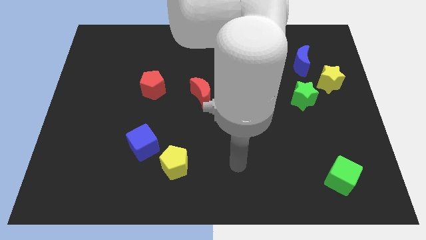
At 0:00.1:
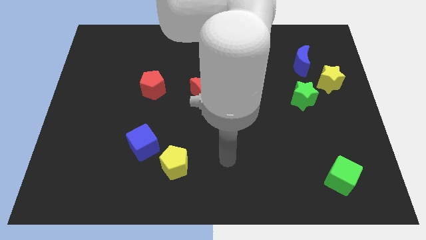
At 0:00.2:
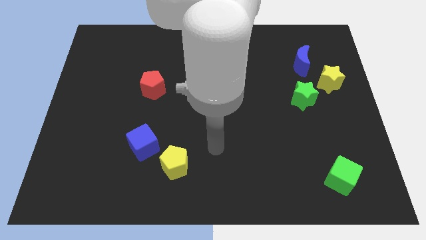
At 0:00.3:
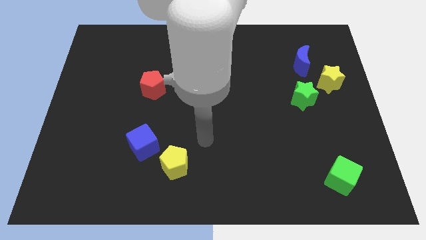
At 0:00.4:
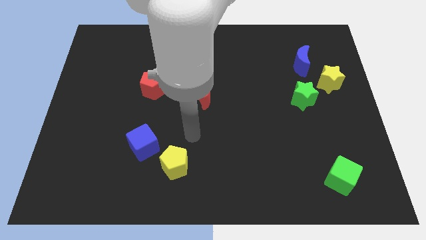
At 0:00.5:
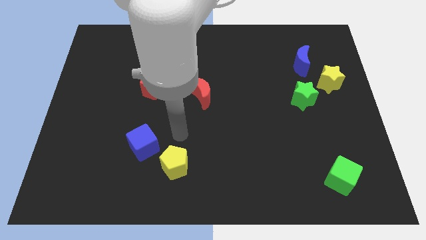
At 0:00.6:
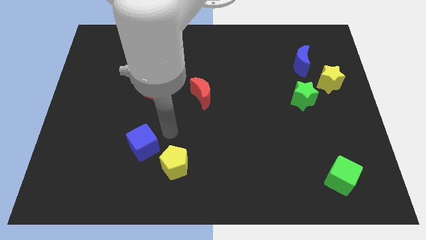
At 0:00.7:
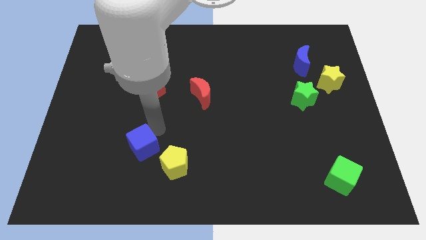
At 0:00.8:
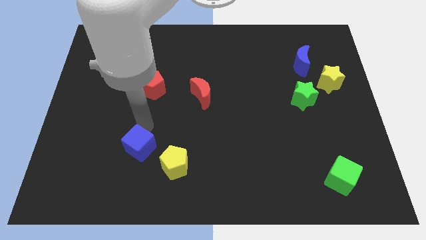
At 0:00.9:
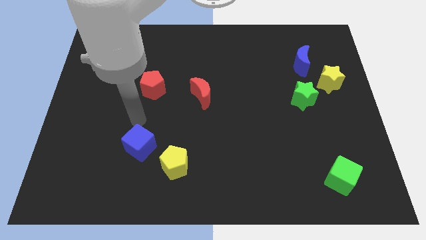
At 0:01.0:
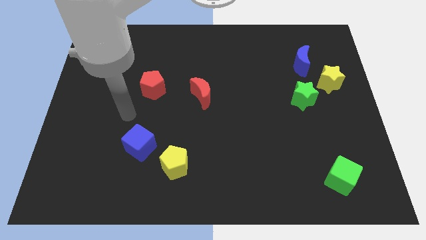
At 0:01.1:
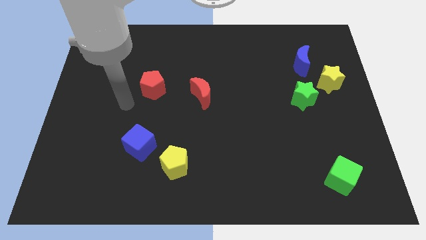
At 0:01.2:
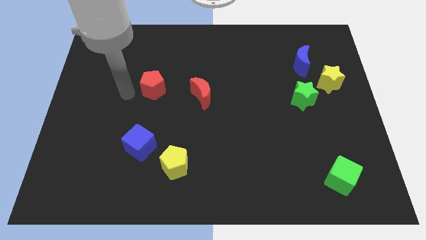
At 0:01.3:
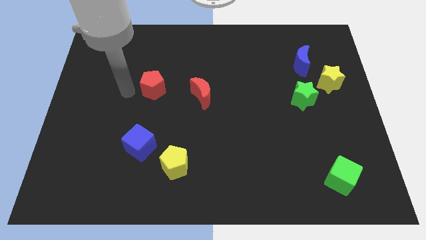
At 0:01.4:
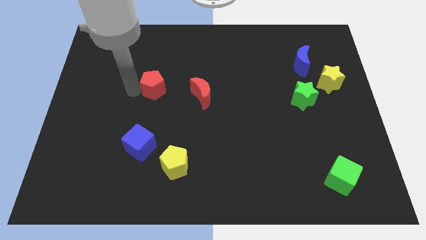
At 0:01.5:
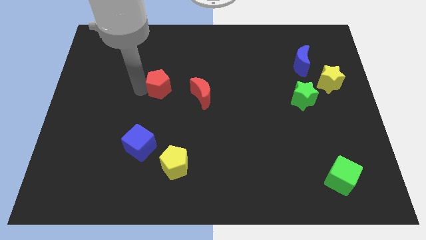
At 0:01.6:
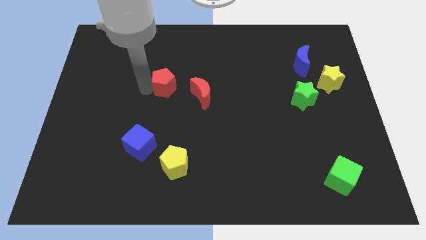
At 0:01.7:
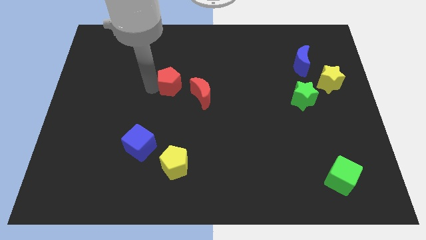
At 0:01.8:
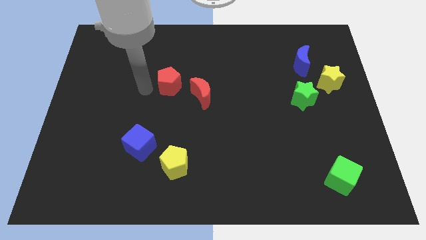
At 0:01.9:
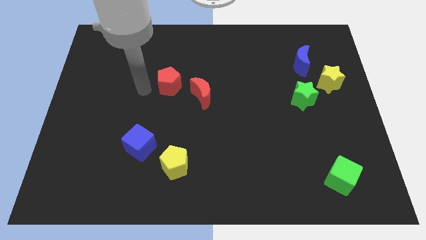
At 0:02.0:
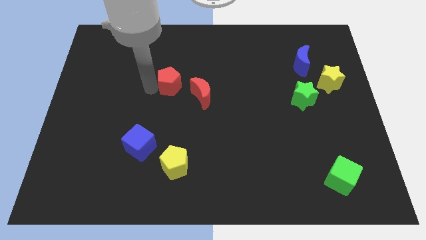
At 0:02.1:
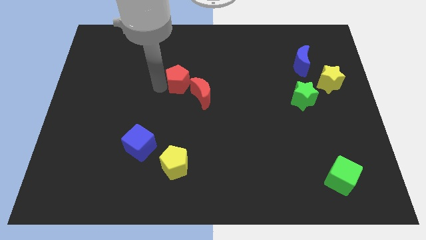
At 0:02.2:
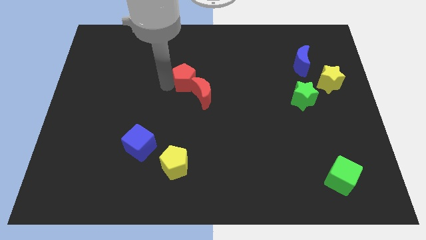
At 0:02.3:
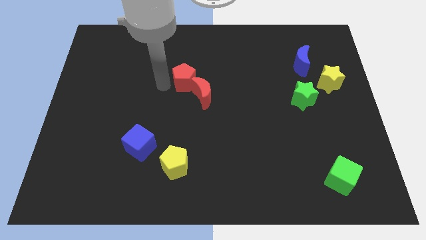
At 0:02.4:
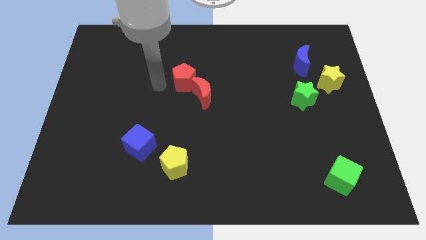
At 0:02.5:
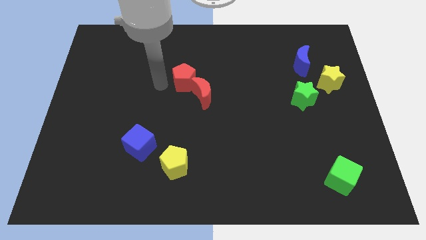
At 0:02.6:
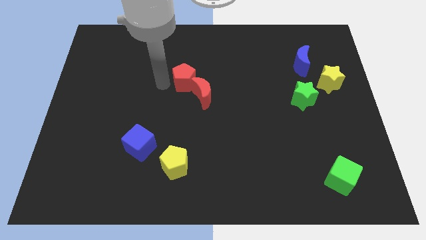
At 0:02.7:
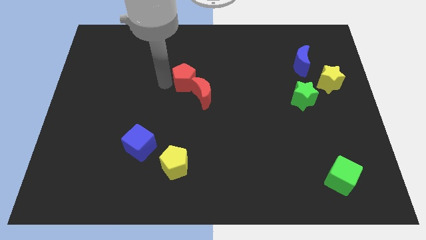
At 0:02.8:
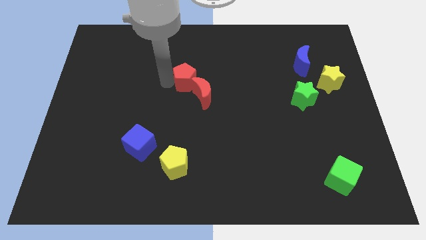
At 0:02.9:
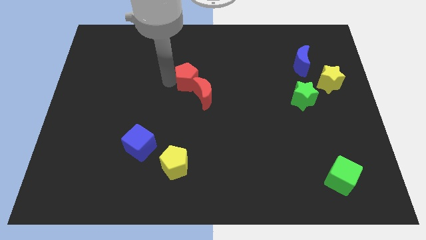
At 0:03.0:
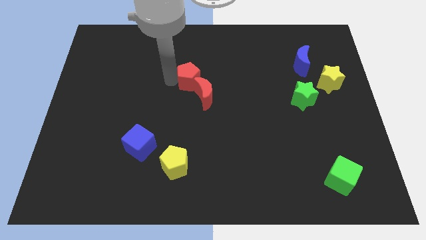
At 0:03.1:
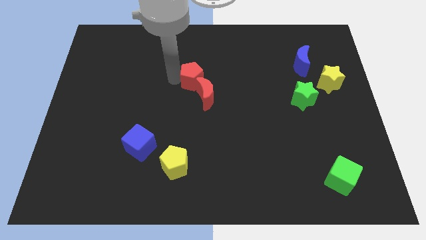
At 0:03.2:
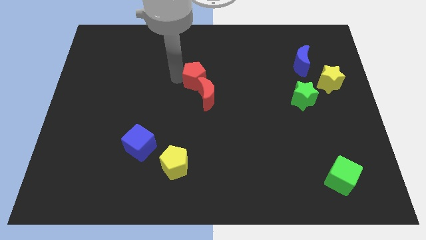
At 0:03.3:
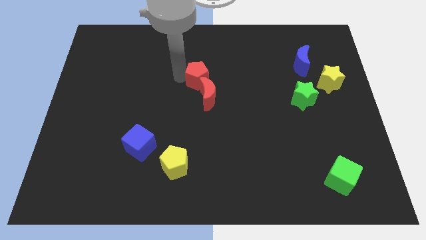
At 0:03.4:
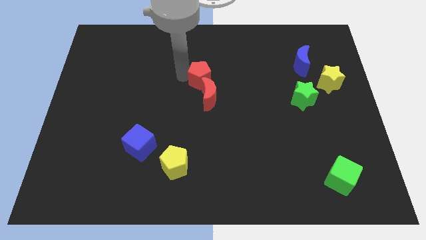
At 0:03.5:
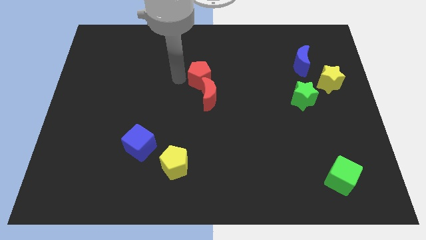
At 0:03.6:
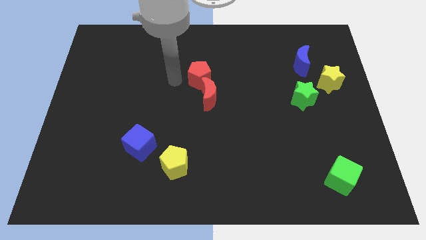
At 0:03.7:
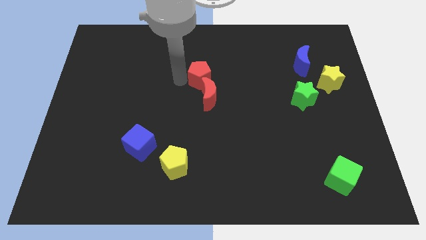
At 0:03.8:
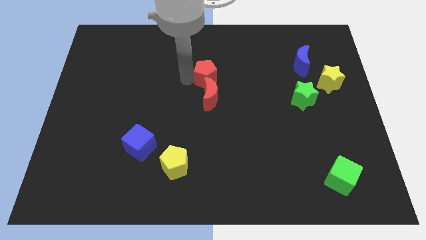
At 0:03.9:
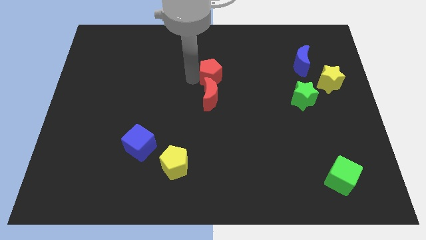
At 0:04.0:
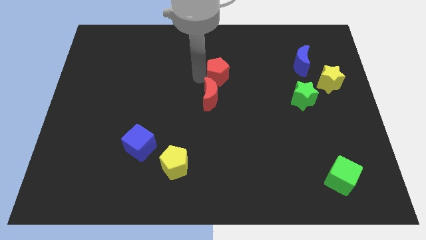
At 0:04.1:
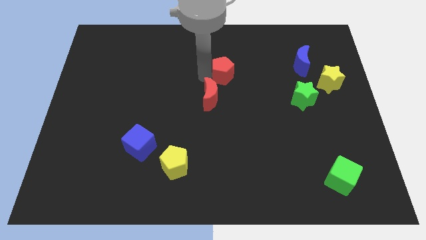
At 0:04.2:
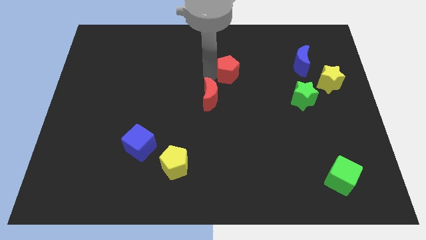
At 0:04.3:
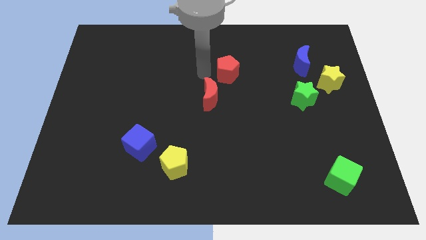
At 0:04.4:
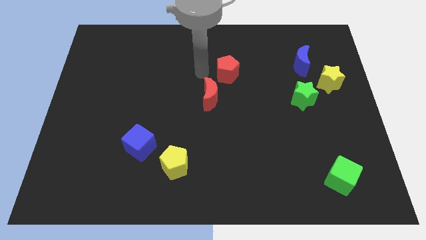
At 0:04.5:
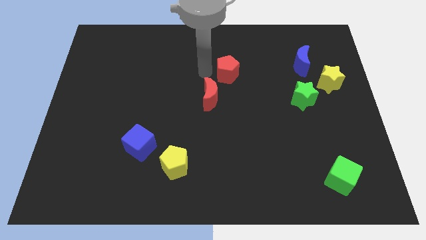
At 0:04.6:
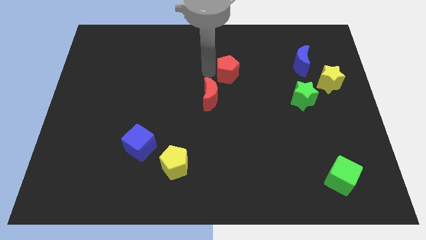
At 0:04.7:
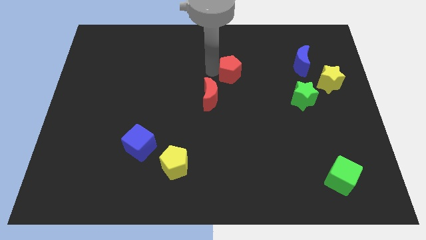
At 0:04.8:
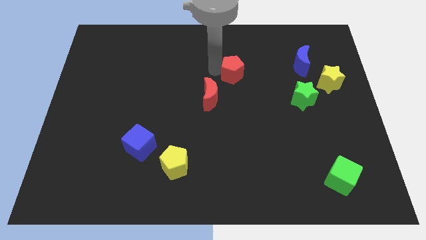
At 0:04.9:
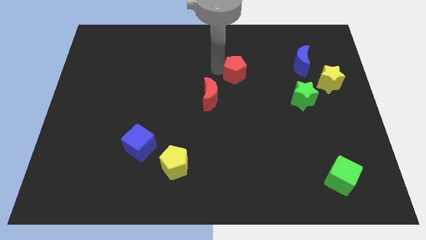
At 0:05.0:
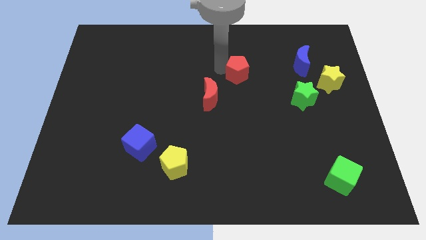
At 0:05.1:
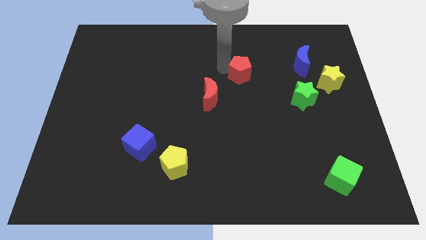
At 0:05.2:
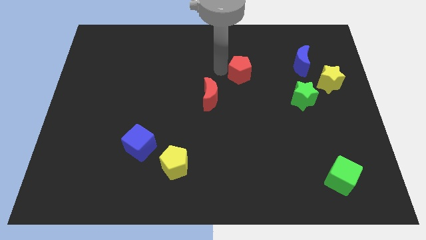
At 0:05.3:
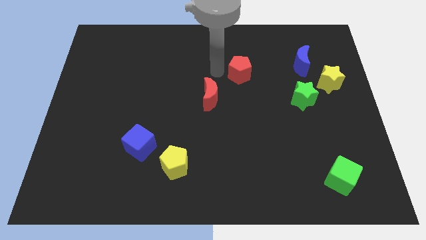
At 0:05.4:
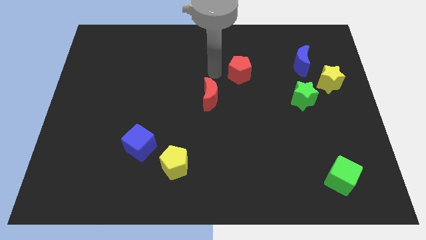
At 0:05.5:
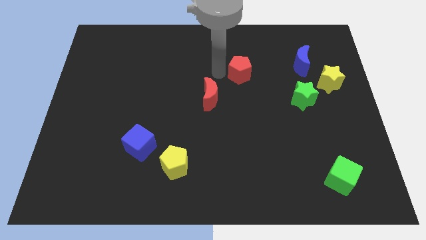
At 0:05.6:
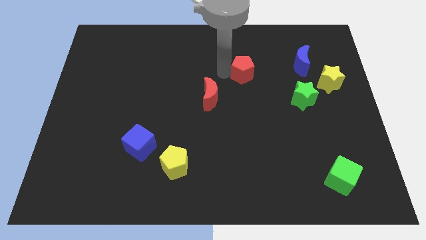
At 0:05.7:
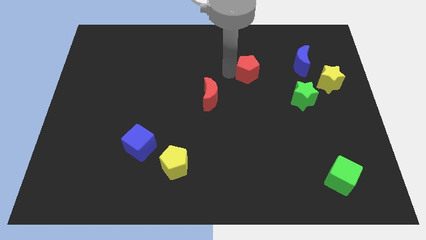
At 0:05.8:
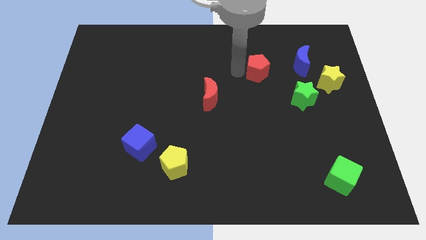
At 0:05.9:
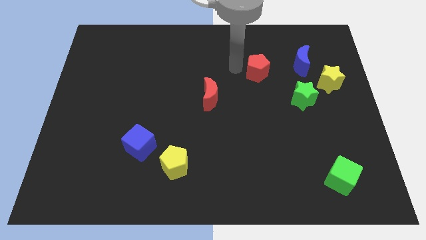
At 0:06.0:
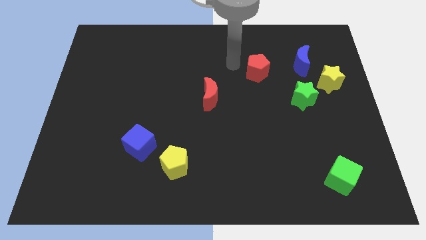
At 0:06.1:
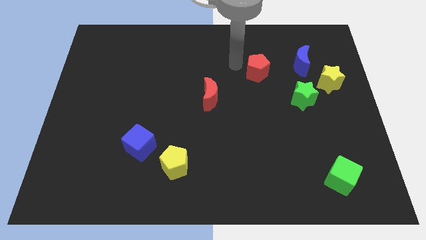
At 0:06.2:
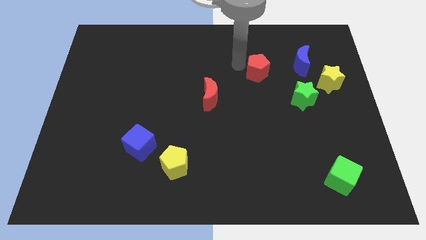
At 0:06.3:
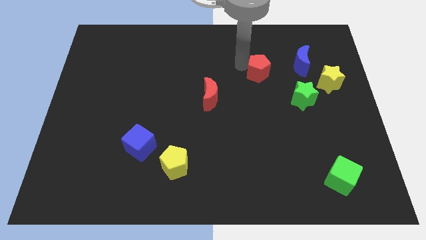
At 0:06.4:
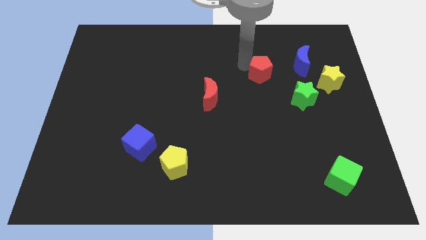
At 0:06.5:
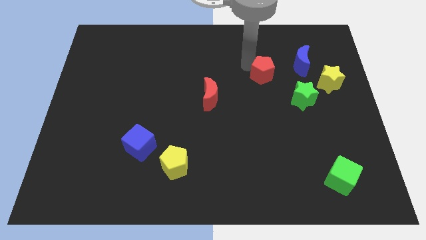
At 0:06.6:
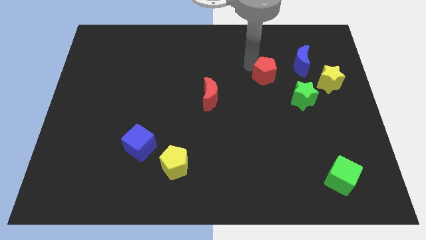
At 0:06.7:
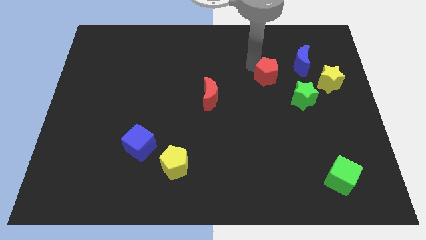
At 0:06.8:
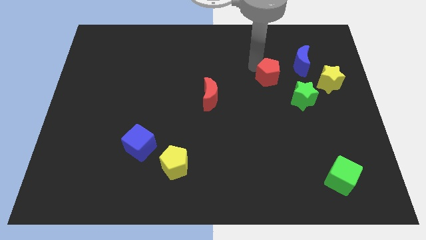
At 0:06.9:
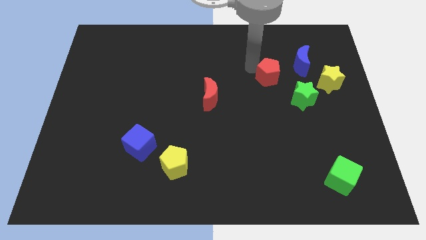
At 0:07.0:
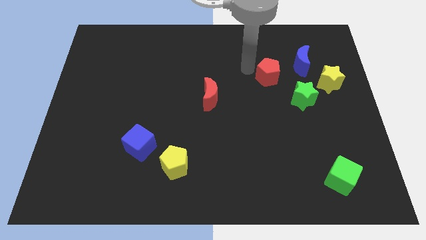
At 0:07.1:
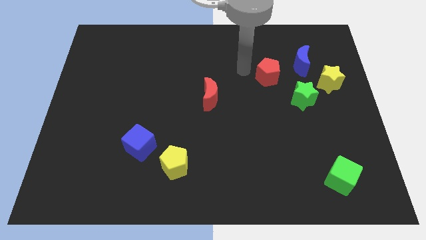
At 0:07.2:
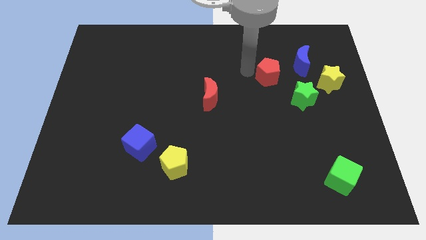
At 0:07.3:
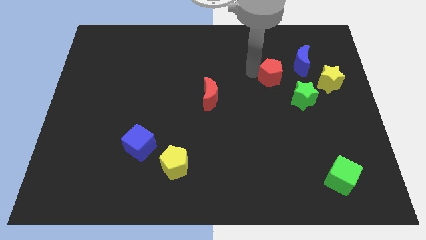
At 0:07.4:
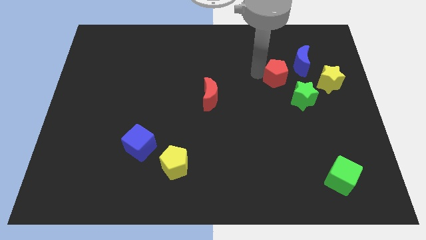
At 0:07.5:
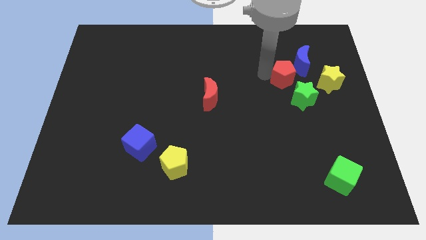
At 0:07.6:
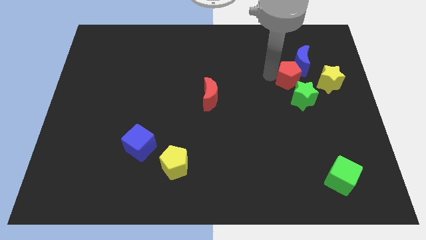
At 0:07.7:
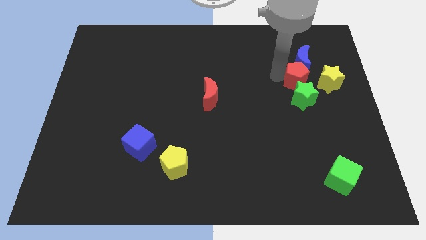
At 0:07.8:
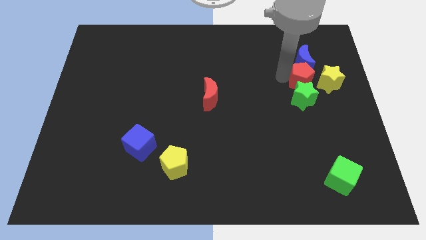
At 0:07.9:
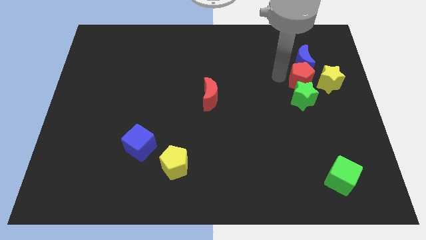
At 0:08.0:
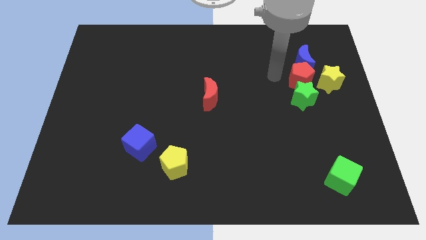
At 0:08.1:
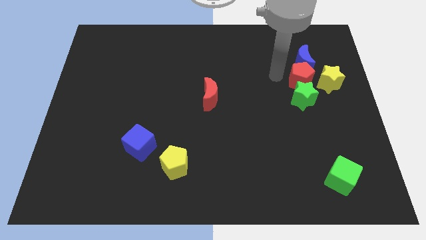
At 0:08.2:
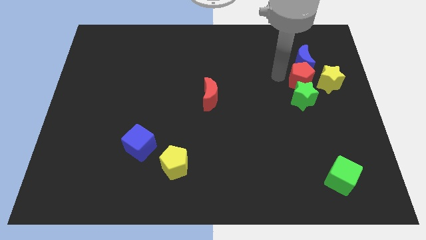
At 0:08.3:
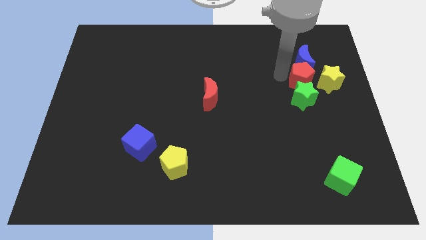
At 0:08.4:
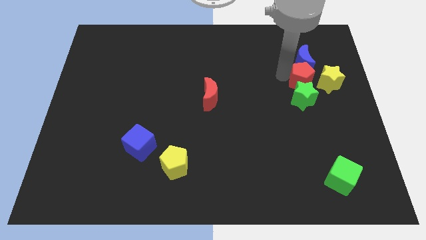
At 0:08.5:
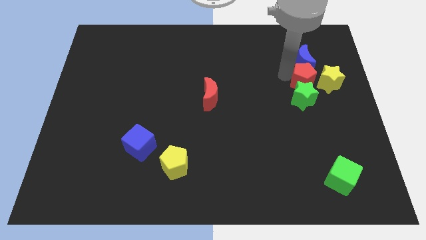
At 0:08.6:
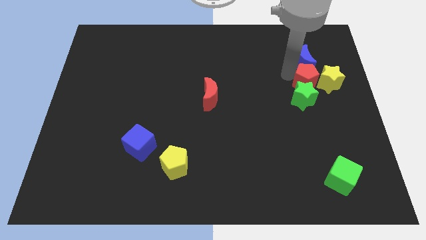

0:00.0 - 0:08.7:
slide the red pentagon close to the yellow star
